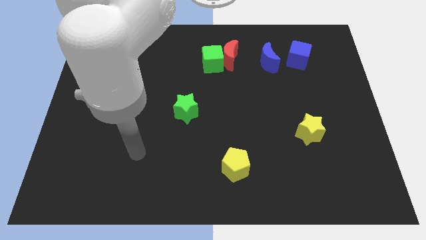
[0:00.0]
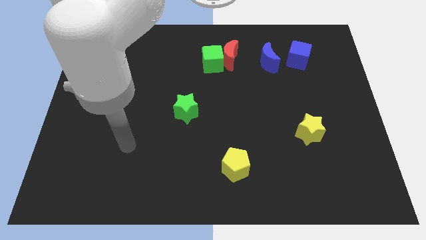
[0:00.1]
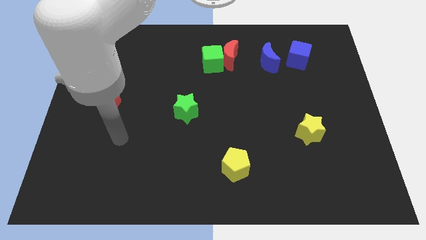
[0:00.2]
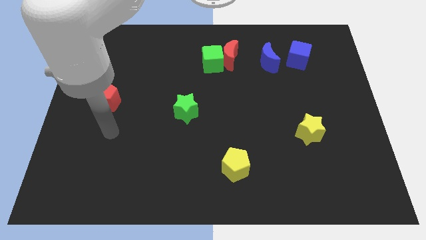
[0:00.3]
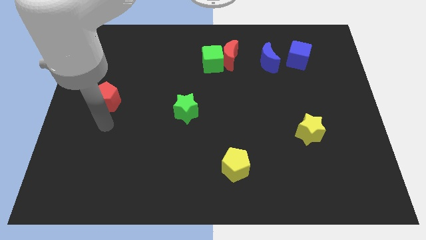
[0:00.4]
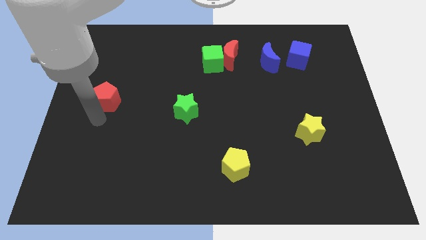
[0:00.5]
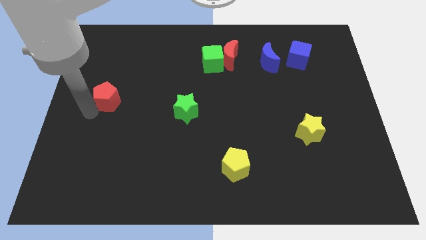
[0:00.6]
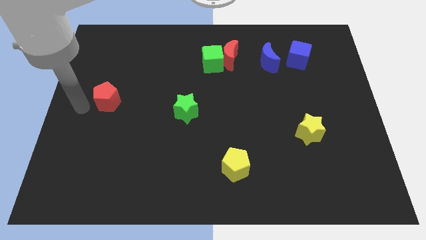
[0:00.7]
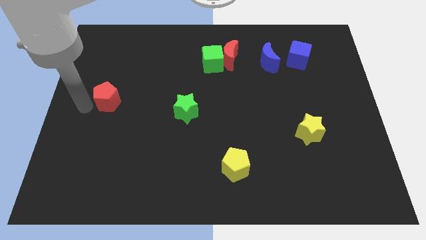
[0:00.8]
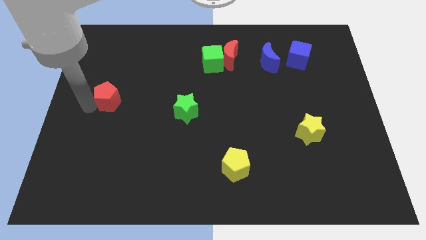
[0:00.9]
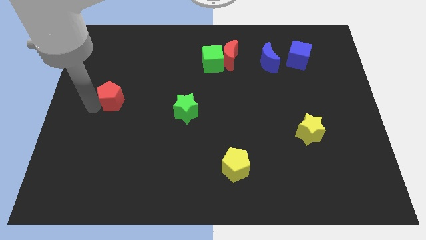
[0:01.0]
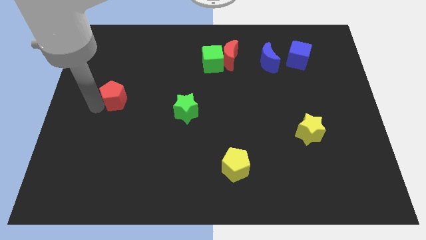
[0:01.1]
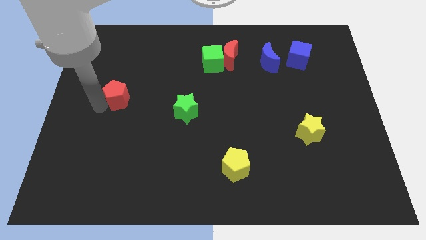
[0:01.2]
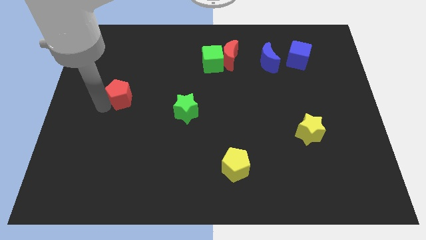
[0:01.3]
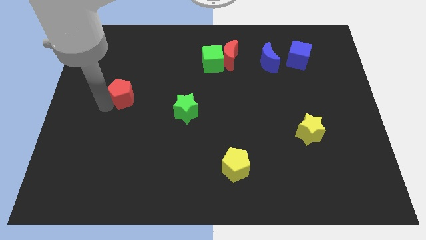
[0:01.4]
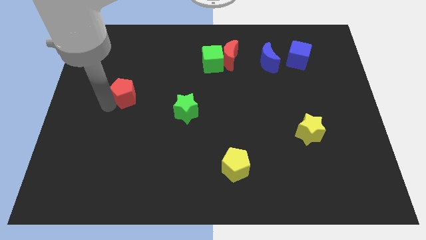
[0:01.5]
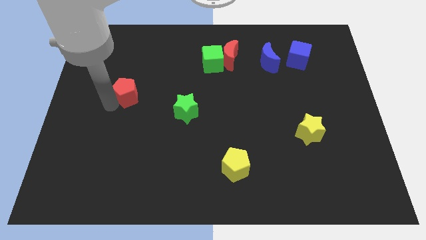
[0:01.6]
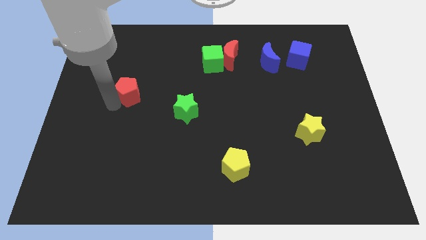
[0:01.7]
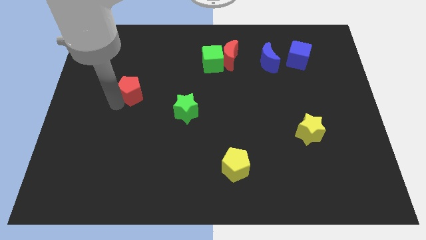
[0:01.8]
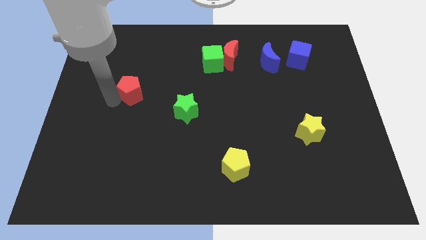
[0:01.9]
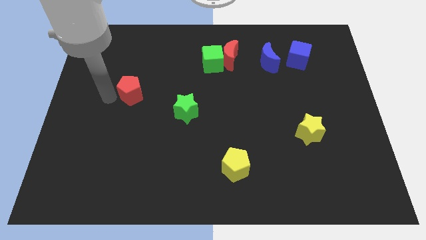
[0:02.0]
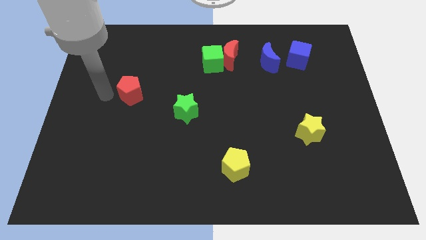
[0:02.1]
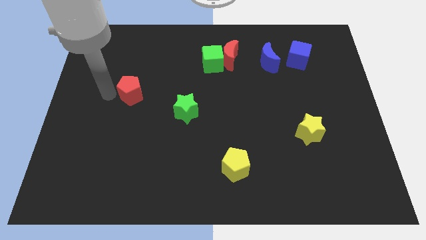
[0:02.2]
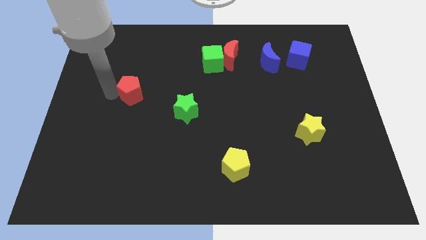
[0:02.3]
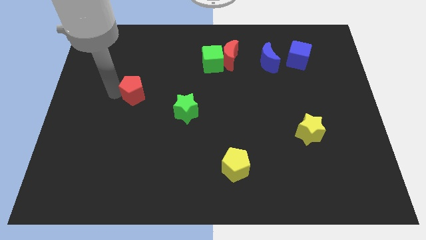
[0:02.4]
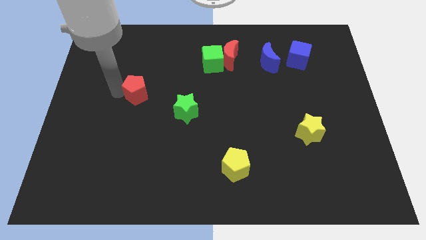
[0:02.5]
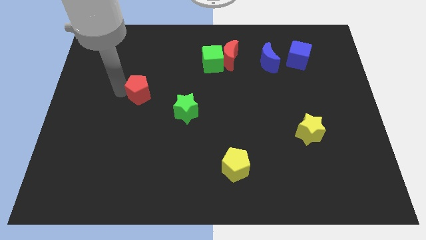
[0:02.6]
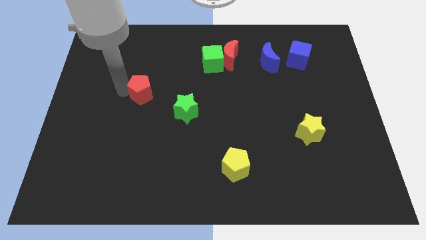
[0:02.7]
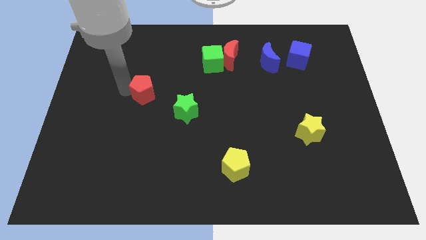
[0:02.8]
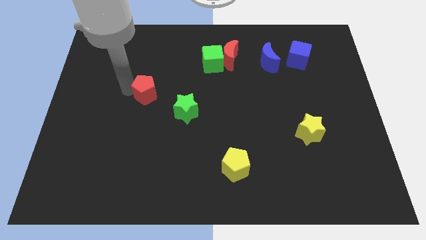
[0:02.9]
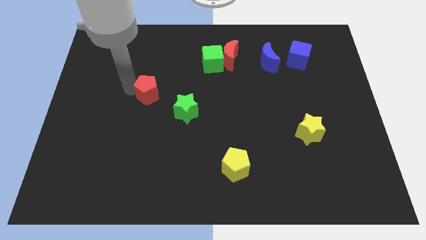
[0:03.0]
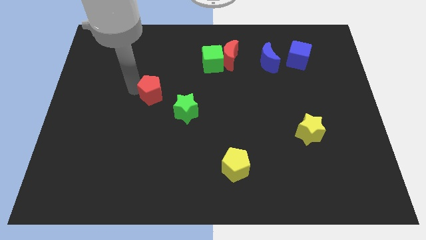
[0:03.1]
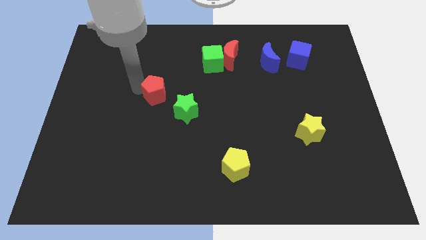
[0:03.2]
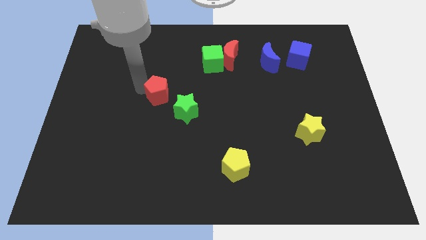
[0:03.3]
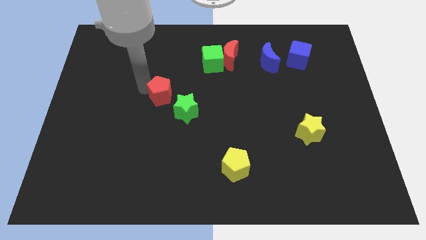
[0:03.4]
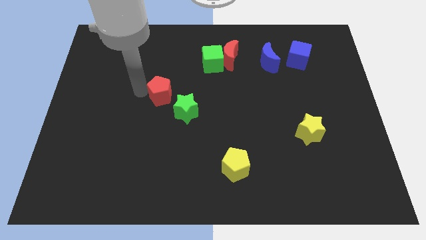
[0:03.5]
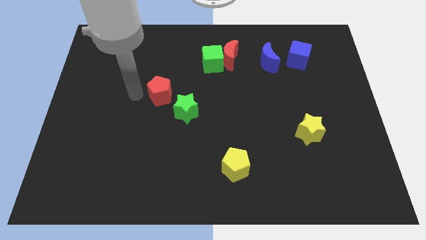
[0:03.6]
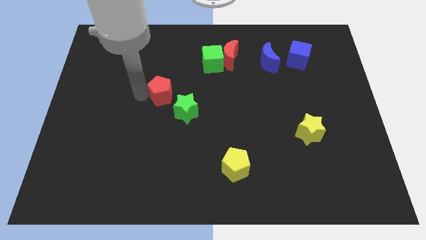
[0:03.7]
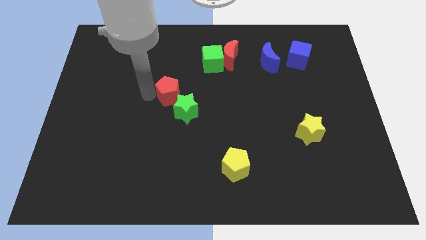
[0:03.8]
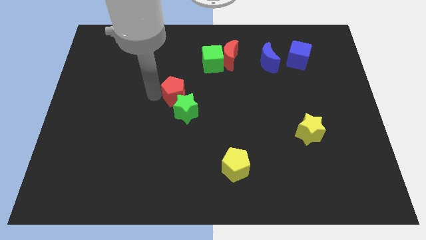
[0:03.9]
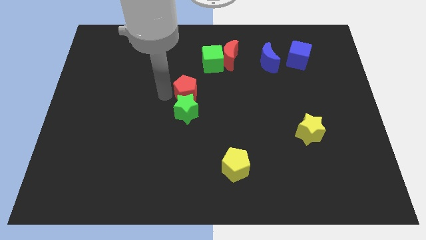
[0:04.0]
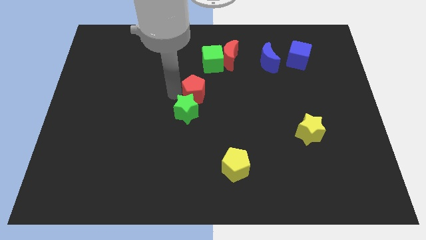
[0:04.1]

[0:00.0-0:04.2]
slide the red pentagon to the right

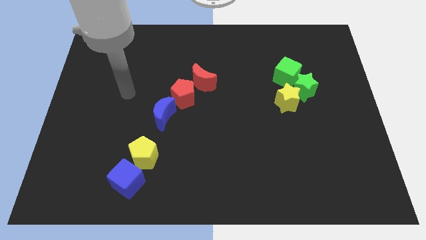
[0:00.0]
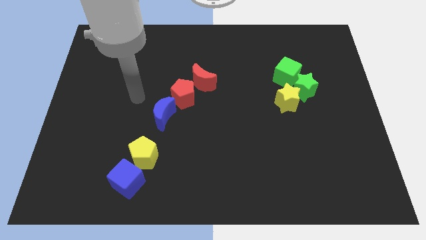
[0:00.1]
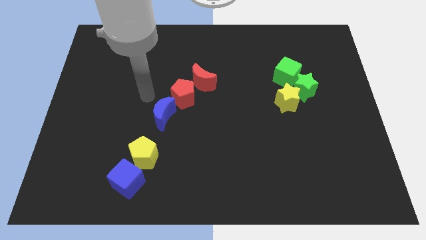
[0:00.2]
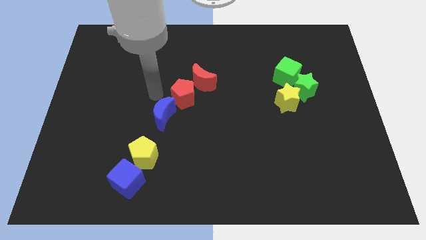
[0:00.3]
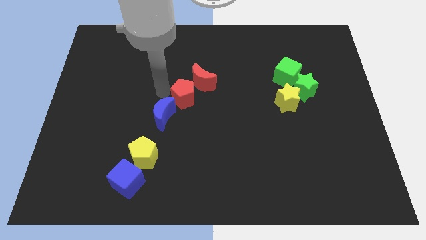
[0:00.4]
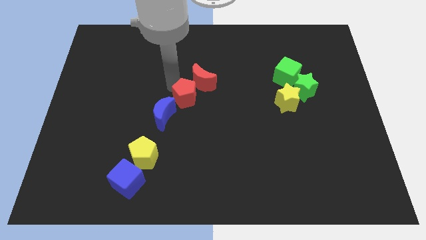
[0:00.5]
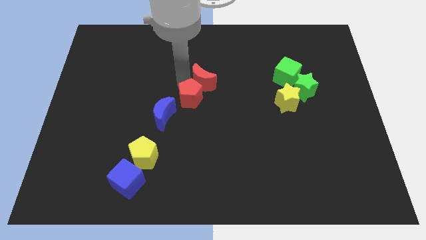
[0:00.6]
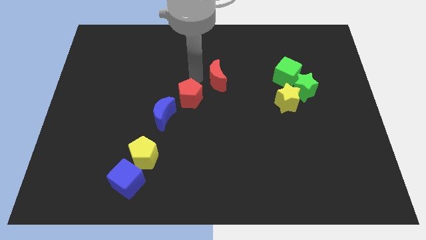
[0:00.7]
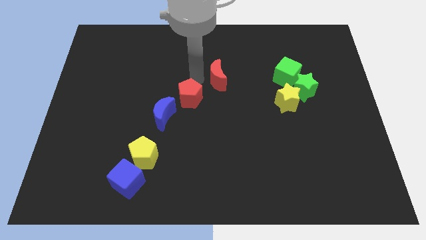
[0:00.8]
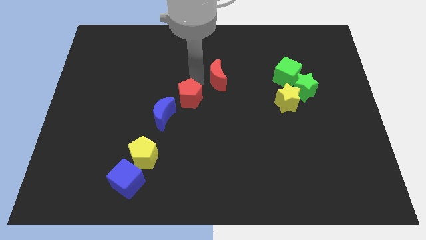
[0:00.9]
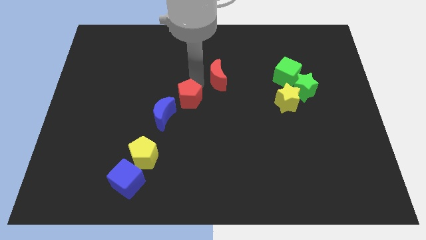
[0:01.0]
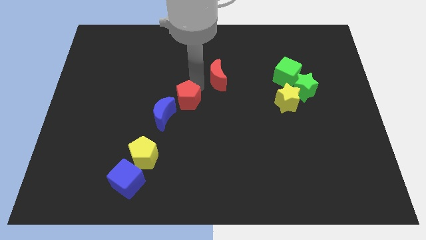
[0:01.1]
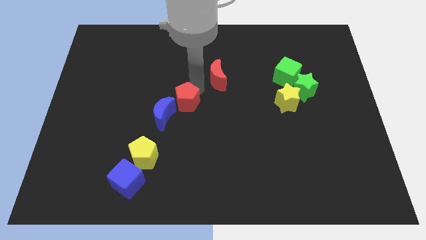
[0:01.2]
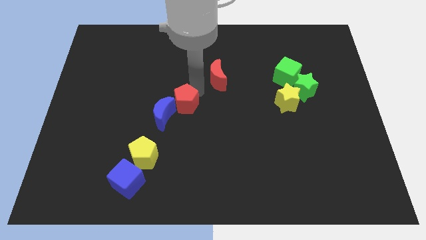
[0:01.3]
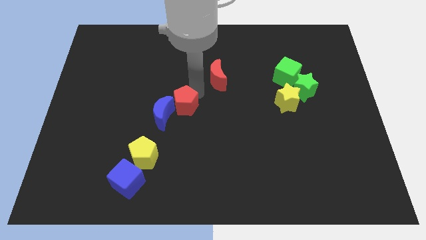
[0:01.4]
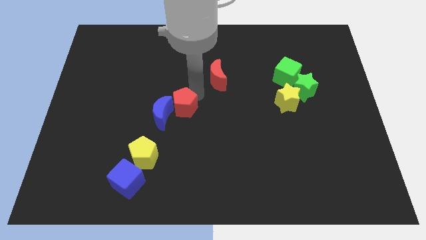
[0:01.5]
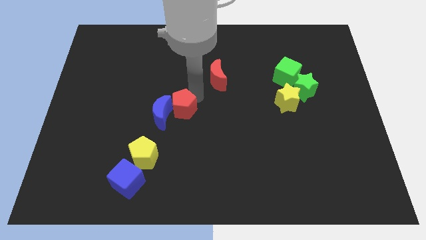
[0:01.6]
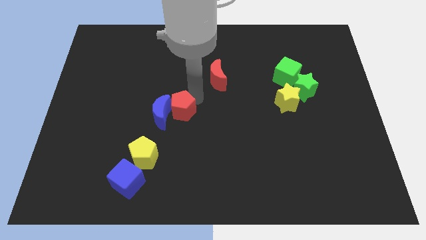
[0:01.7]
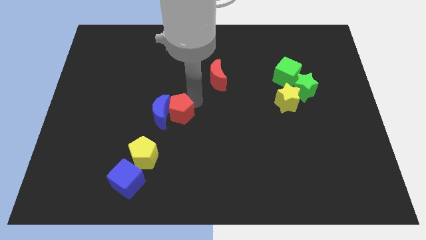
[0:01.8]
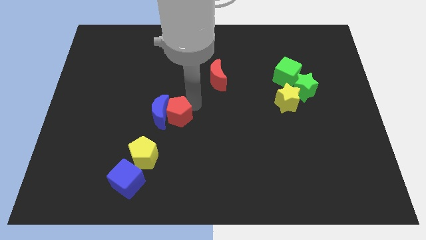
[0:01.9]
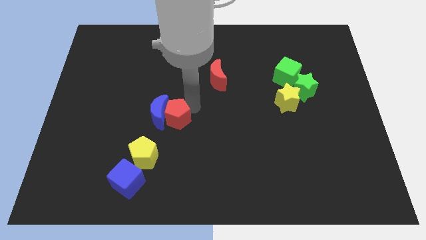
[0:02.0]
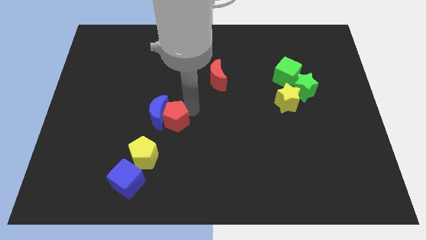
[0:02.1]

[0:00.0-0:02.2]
slightly move the red pentagon downwards

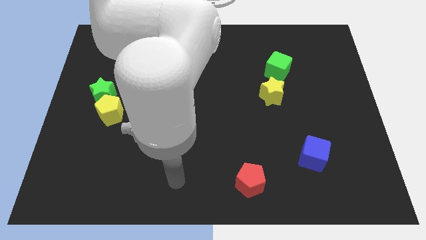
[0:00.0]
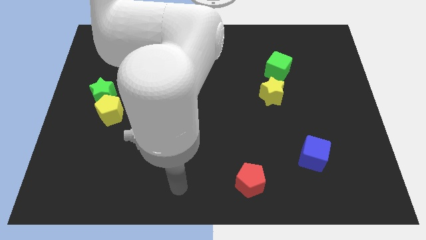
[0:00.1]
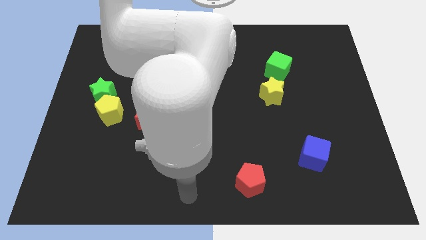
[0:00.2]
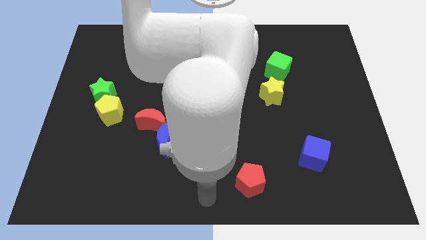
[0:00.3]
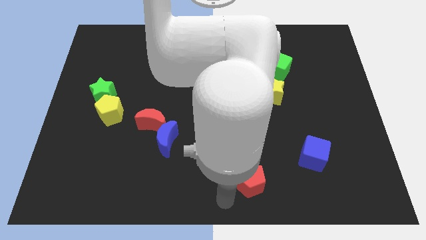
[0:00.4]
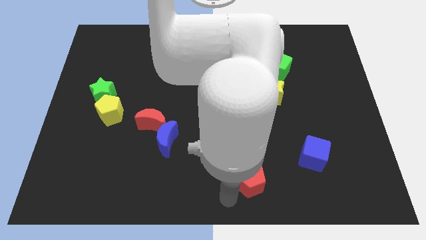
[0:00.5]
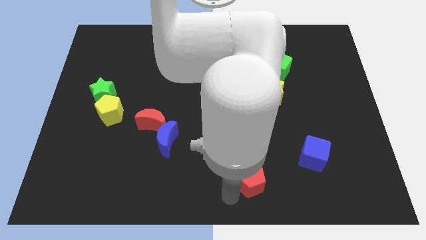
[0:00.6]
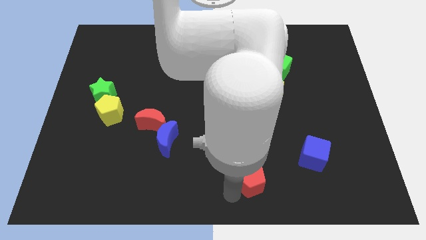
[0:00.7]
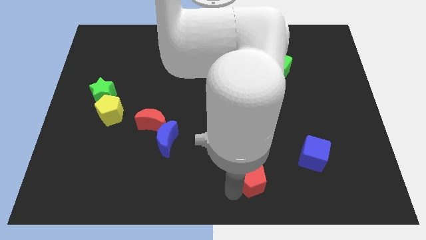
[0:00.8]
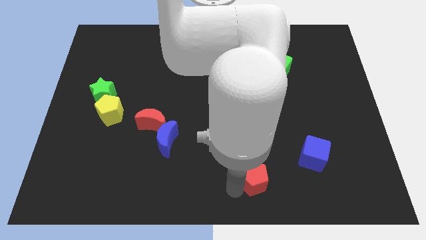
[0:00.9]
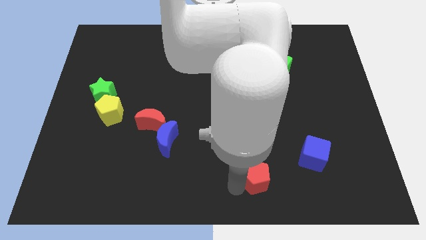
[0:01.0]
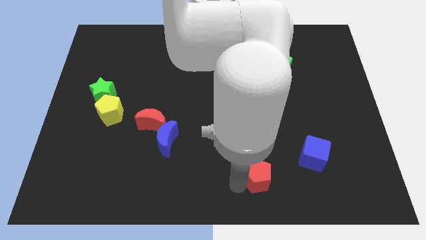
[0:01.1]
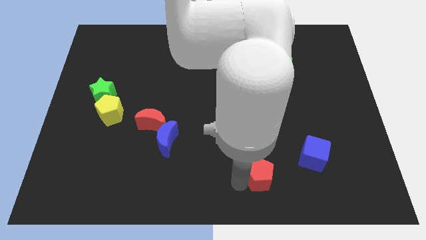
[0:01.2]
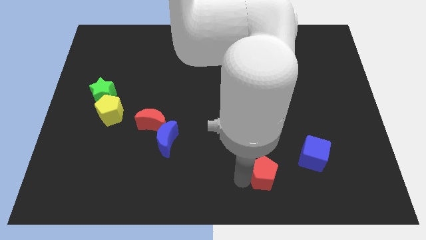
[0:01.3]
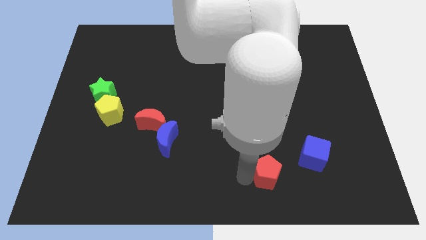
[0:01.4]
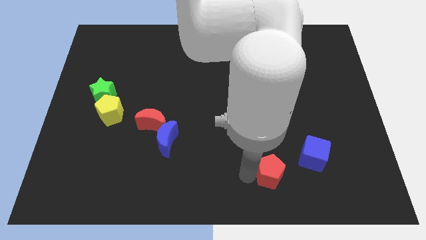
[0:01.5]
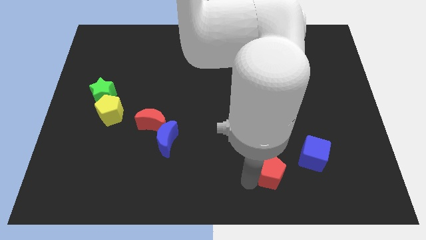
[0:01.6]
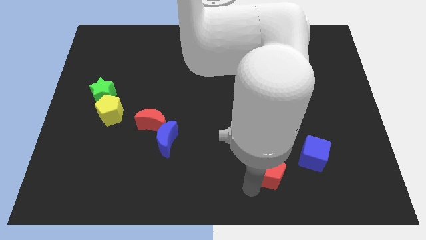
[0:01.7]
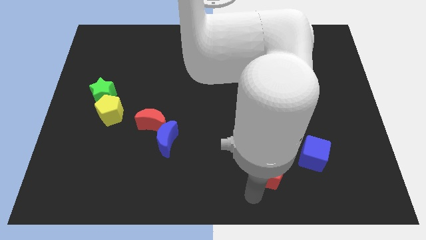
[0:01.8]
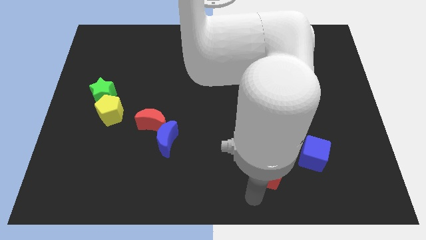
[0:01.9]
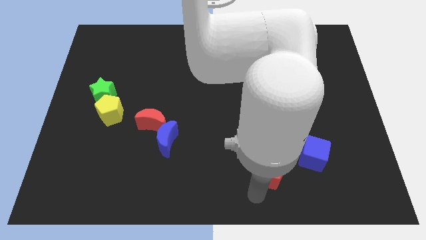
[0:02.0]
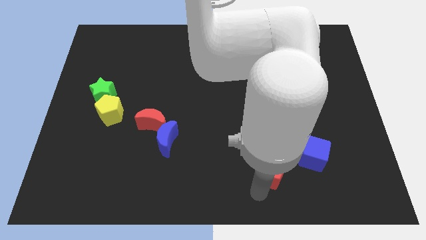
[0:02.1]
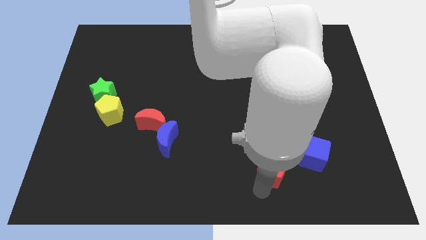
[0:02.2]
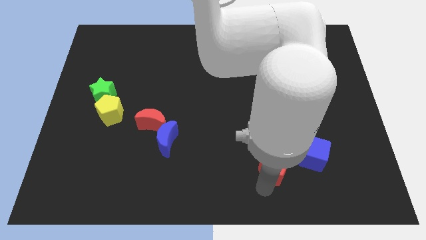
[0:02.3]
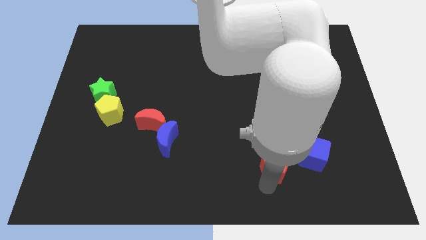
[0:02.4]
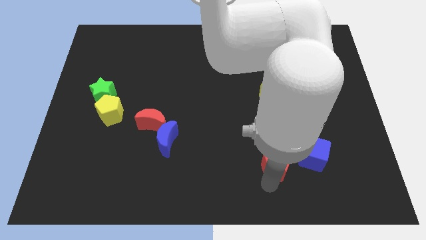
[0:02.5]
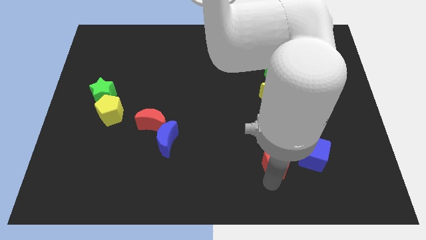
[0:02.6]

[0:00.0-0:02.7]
slightly move the red pentagon upwards and right
